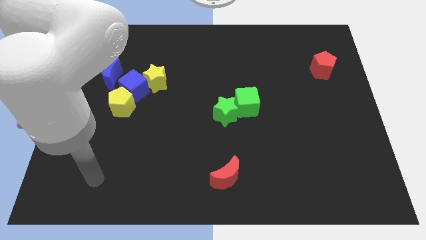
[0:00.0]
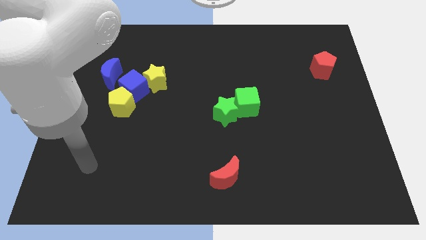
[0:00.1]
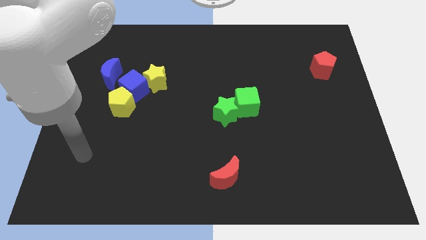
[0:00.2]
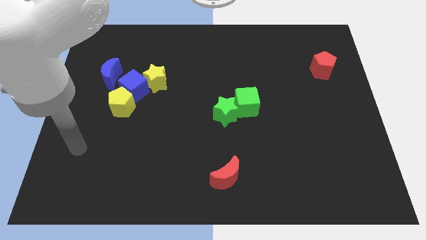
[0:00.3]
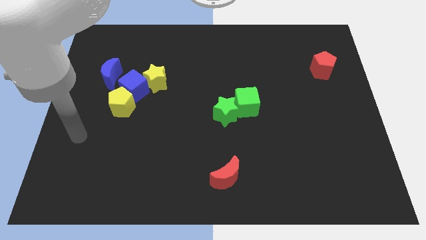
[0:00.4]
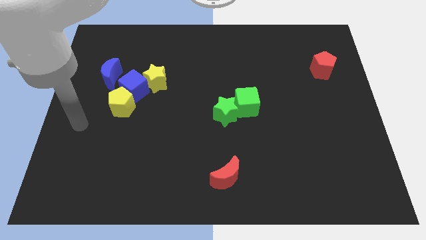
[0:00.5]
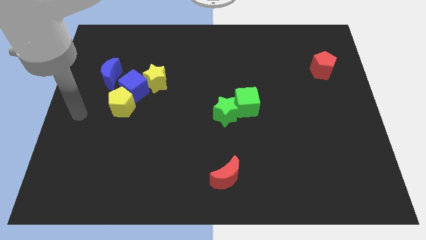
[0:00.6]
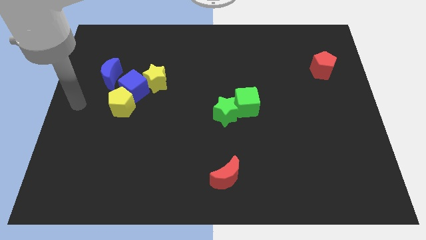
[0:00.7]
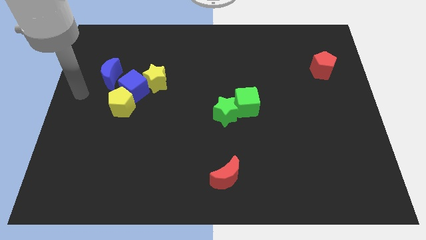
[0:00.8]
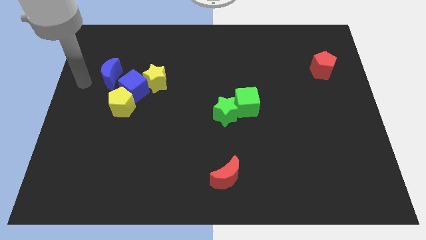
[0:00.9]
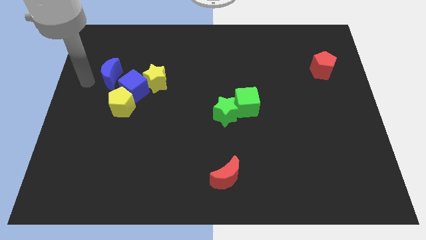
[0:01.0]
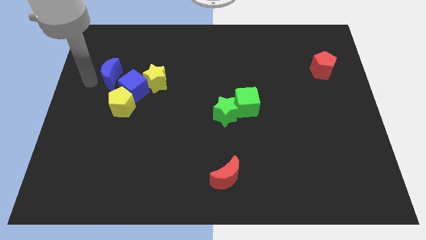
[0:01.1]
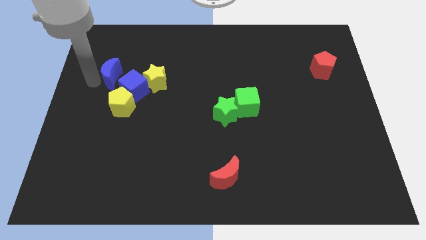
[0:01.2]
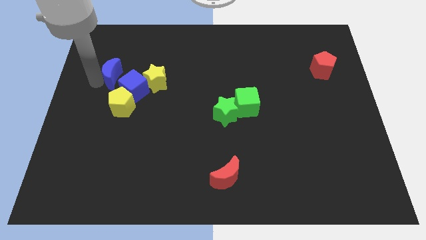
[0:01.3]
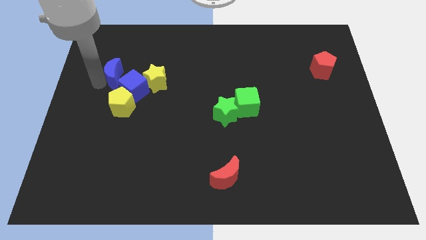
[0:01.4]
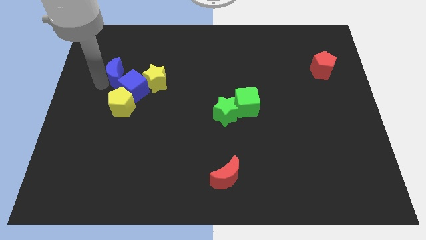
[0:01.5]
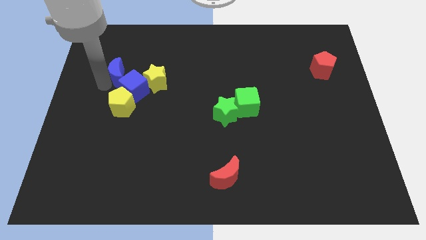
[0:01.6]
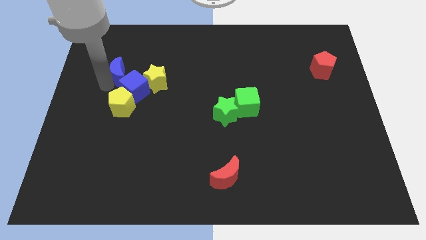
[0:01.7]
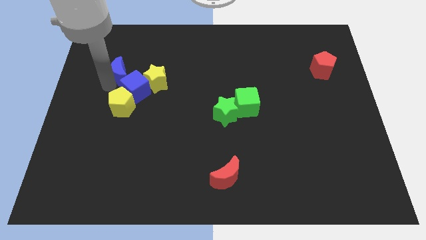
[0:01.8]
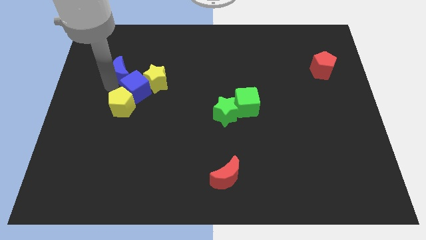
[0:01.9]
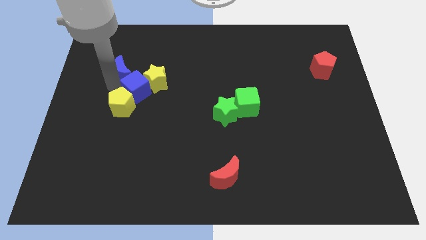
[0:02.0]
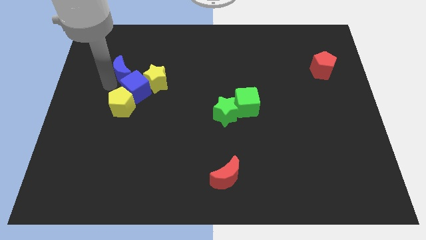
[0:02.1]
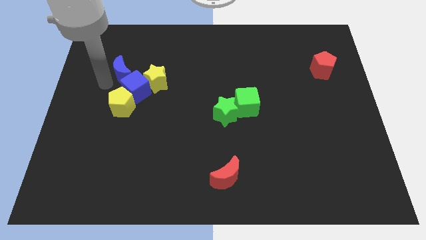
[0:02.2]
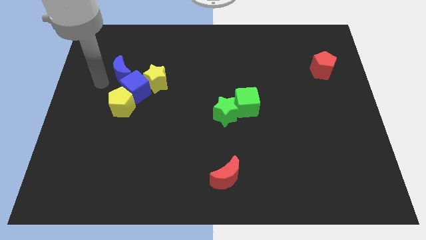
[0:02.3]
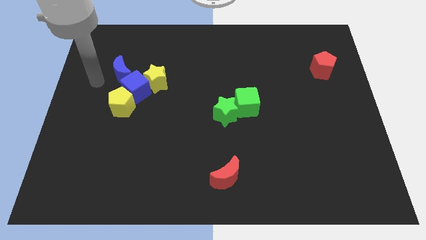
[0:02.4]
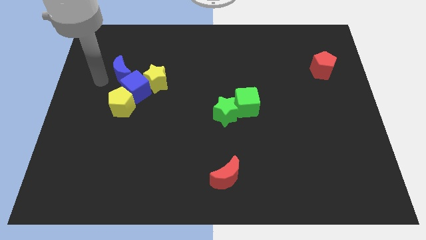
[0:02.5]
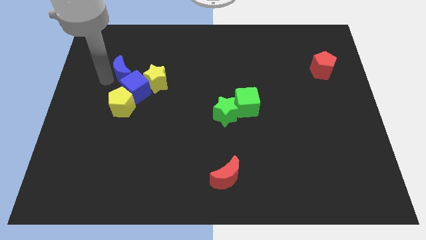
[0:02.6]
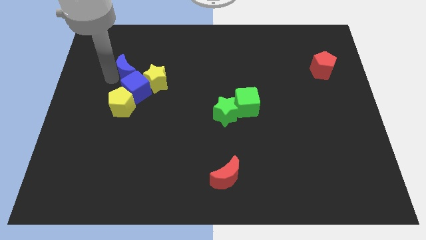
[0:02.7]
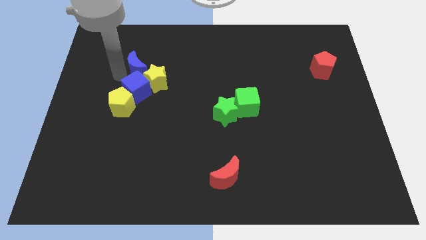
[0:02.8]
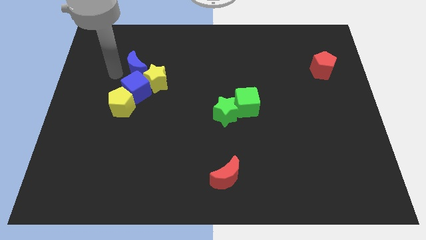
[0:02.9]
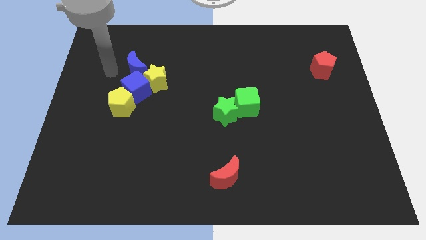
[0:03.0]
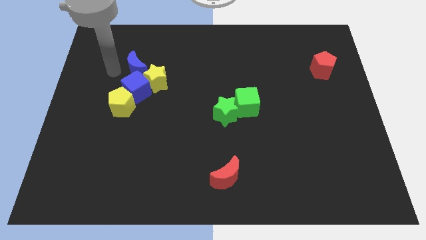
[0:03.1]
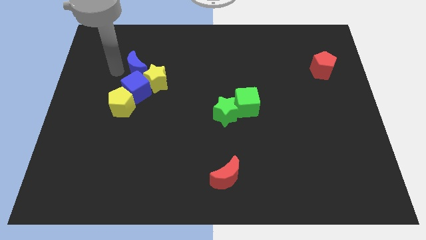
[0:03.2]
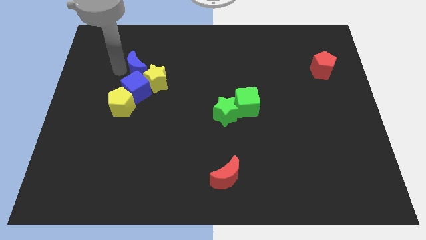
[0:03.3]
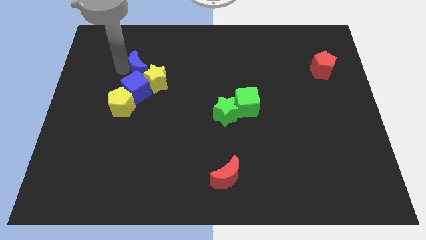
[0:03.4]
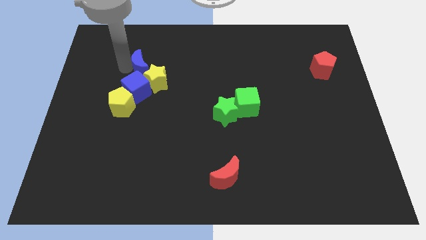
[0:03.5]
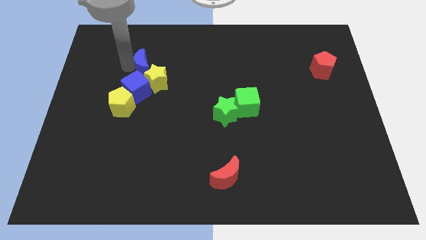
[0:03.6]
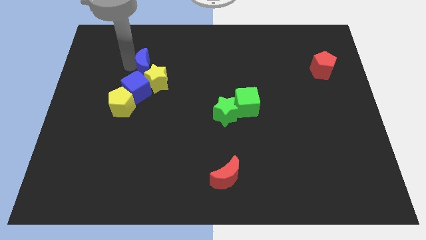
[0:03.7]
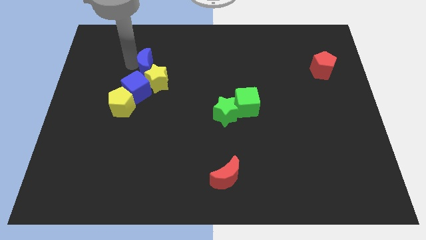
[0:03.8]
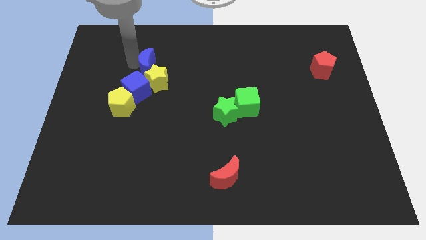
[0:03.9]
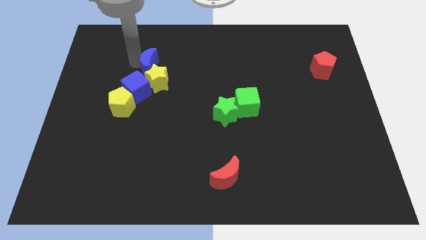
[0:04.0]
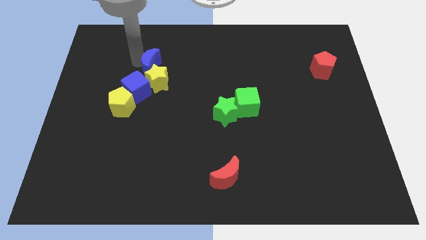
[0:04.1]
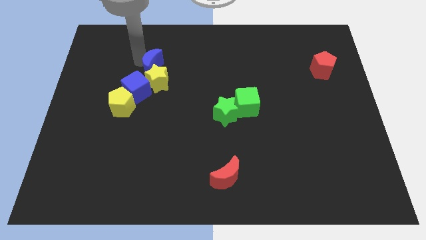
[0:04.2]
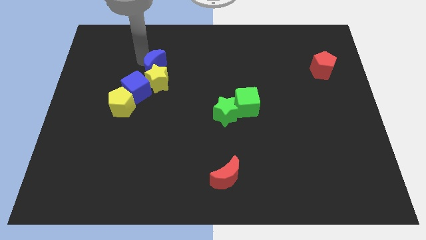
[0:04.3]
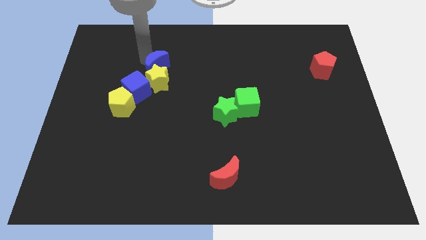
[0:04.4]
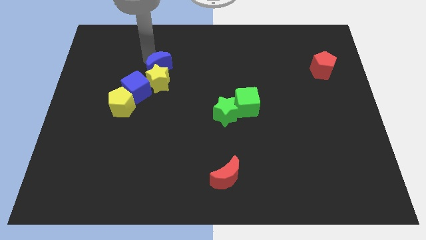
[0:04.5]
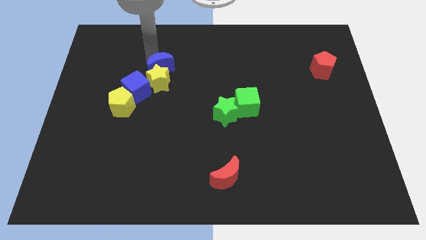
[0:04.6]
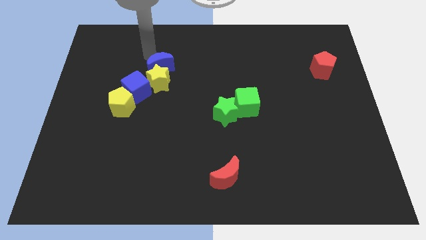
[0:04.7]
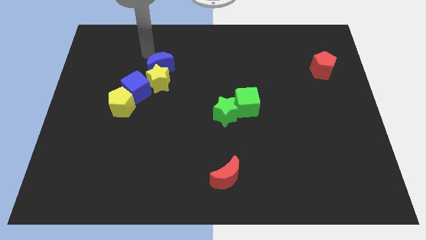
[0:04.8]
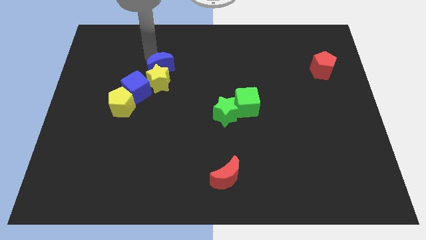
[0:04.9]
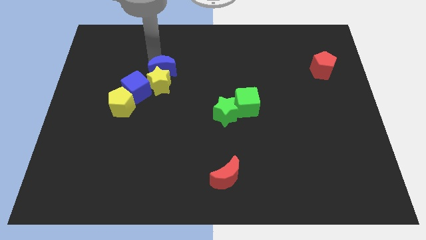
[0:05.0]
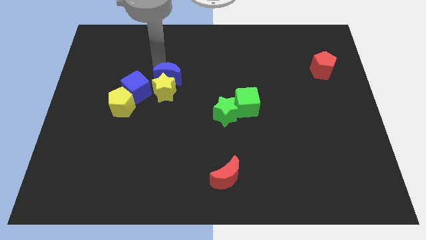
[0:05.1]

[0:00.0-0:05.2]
slide the blue moon right of the blue cube

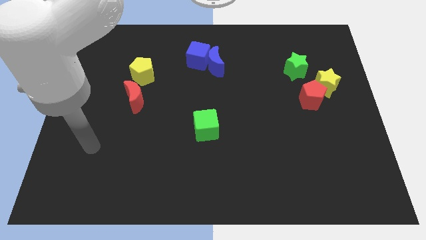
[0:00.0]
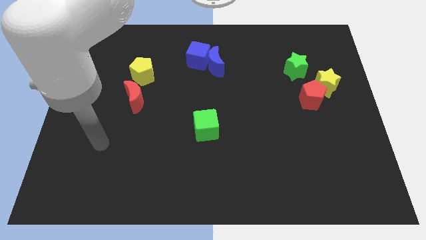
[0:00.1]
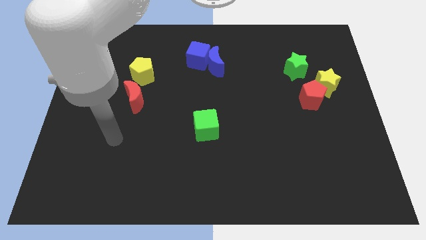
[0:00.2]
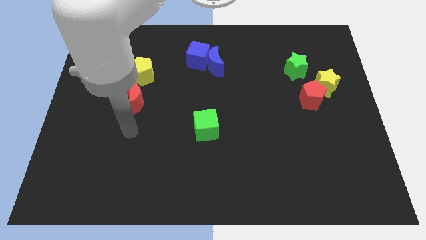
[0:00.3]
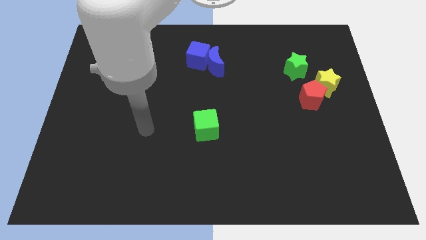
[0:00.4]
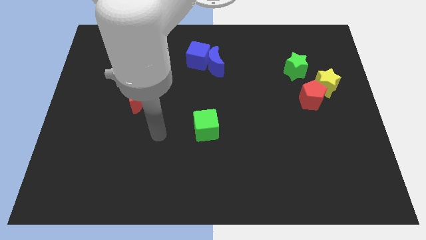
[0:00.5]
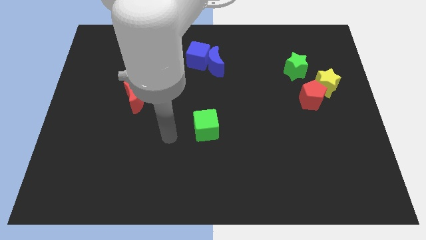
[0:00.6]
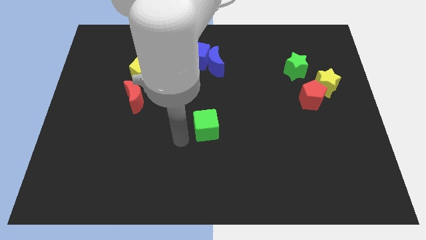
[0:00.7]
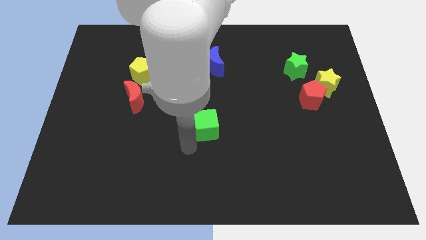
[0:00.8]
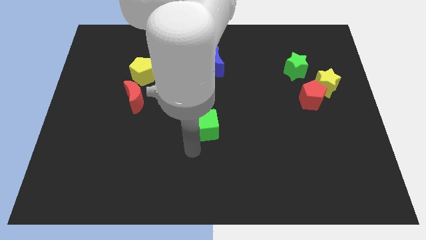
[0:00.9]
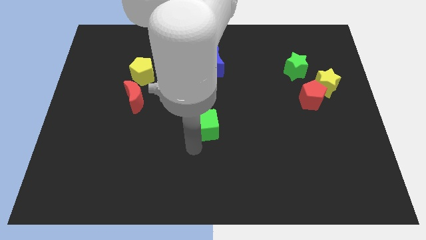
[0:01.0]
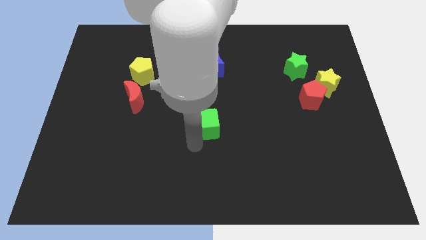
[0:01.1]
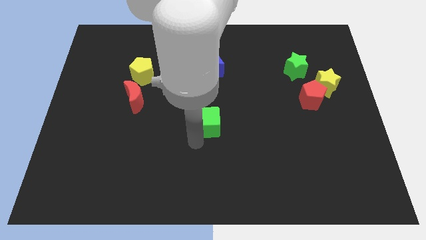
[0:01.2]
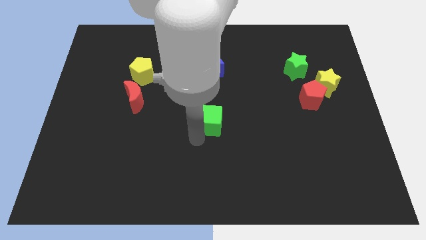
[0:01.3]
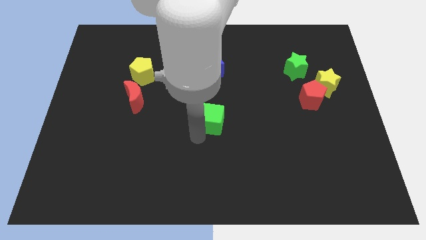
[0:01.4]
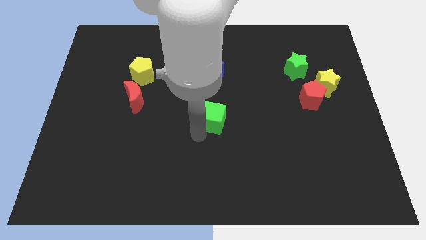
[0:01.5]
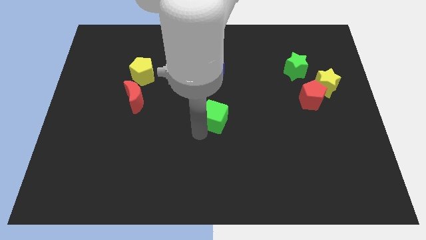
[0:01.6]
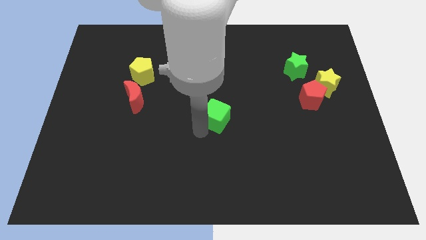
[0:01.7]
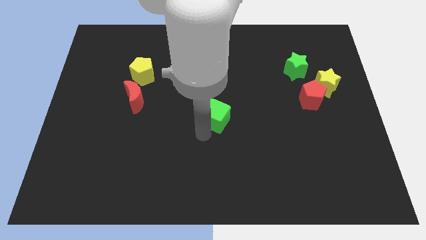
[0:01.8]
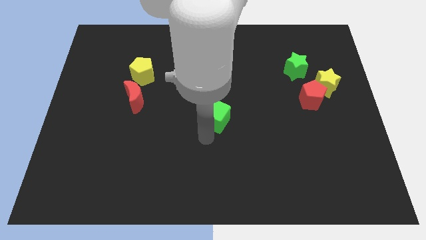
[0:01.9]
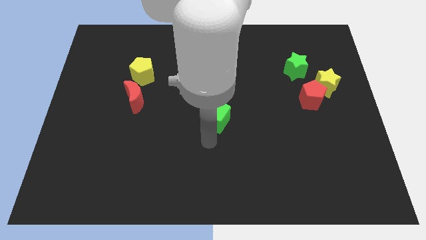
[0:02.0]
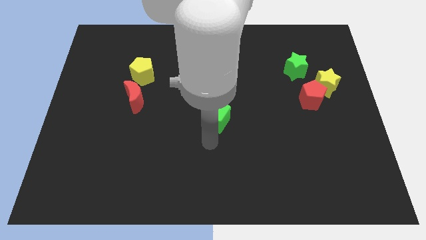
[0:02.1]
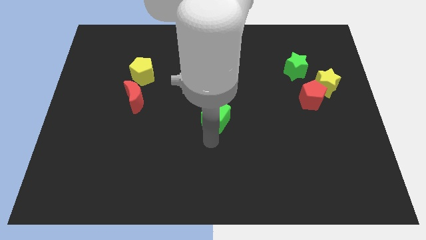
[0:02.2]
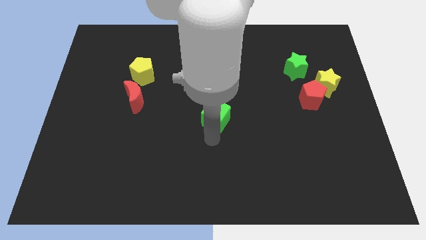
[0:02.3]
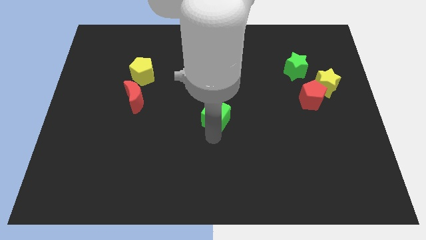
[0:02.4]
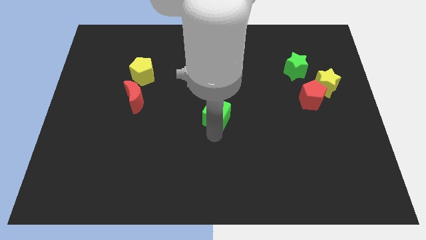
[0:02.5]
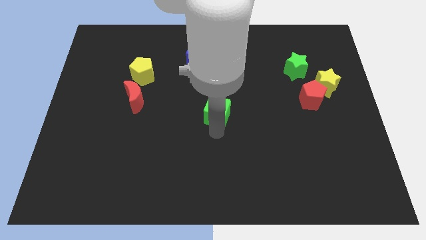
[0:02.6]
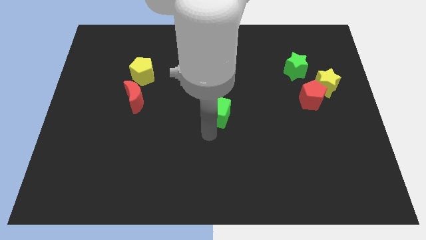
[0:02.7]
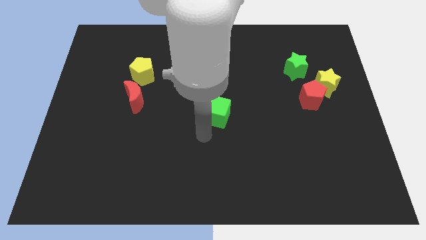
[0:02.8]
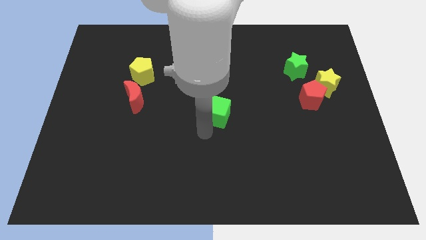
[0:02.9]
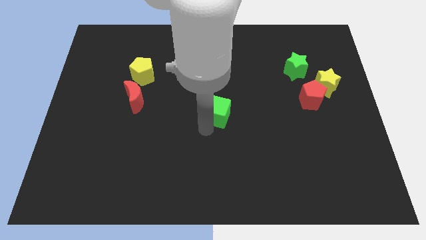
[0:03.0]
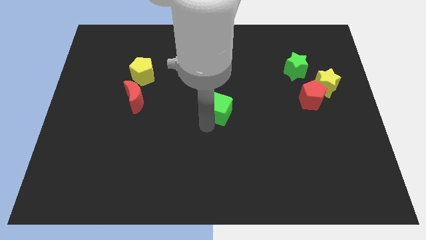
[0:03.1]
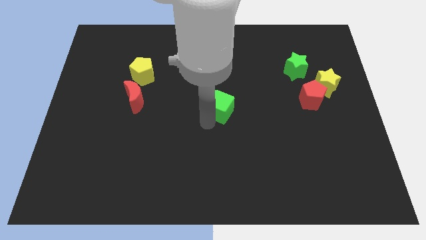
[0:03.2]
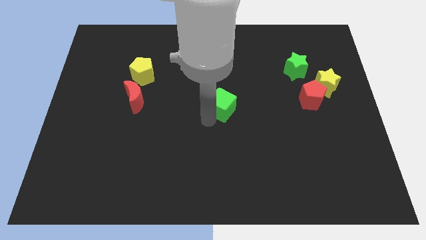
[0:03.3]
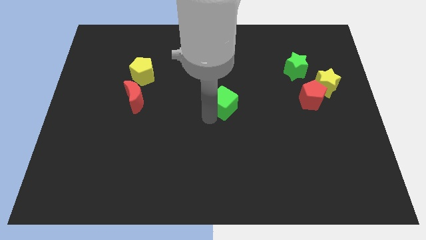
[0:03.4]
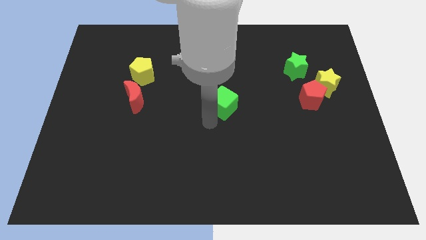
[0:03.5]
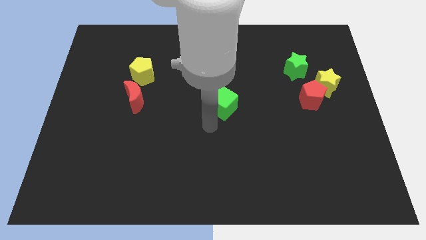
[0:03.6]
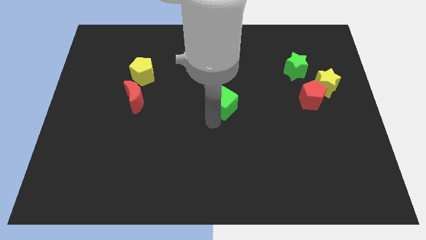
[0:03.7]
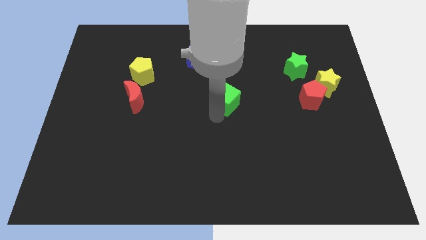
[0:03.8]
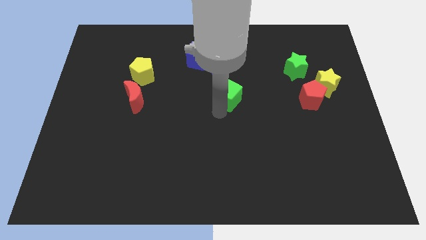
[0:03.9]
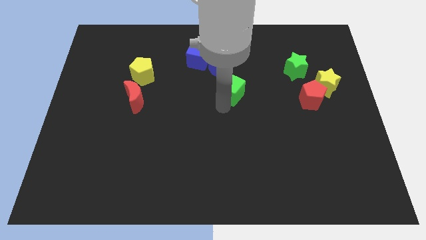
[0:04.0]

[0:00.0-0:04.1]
push the green cube diagonally down and to the right of the blue moon
